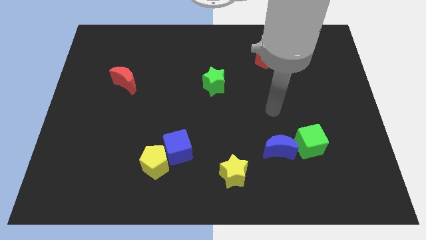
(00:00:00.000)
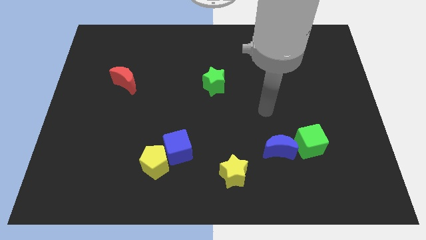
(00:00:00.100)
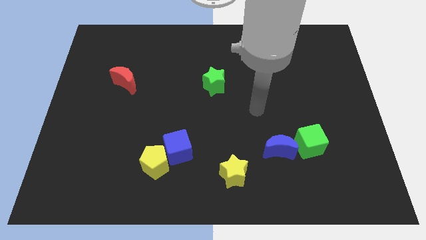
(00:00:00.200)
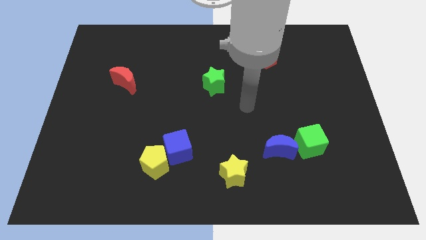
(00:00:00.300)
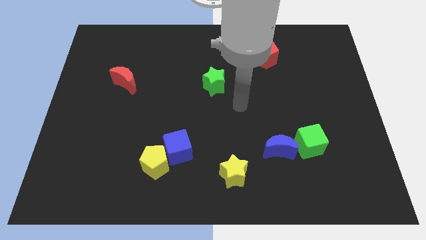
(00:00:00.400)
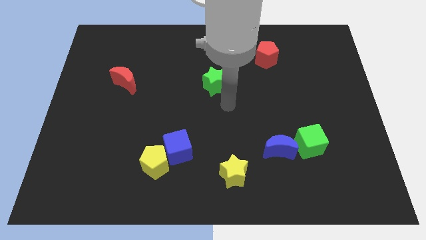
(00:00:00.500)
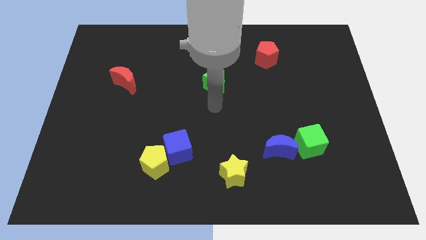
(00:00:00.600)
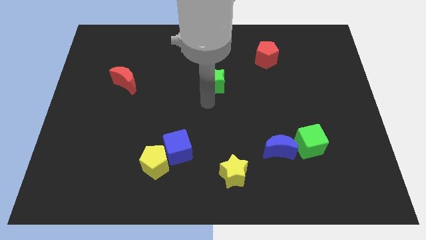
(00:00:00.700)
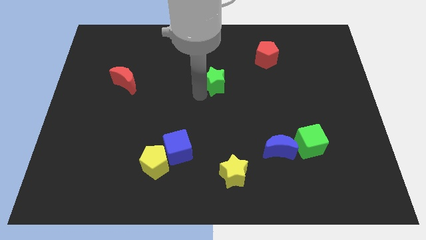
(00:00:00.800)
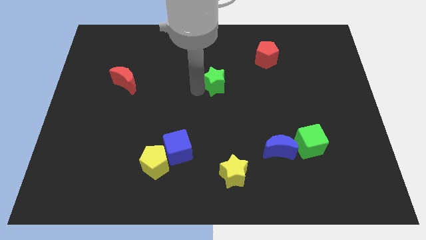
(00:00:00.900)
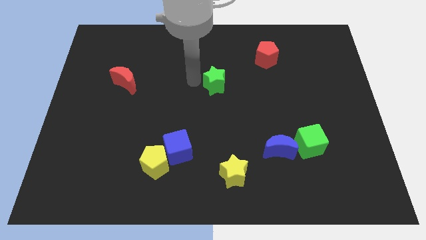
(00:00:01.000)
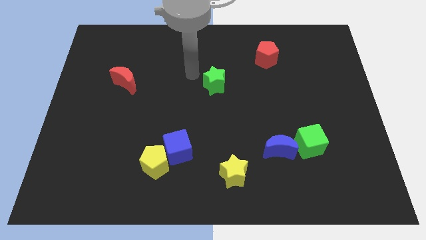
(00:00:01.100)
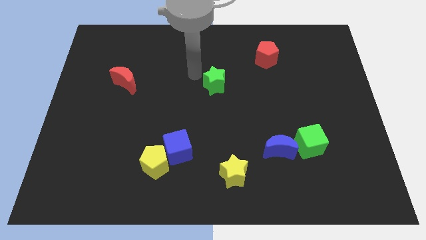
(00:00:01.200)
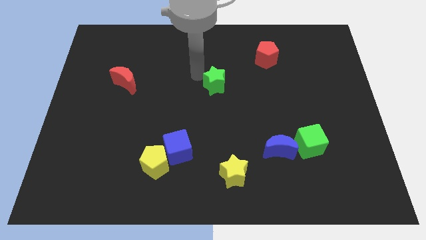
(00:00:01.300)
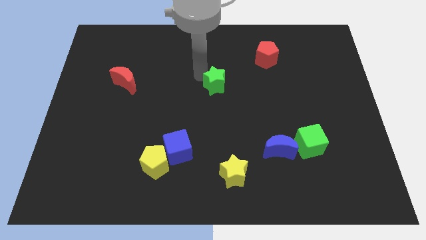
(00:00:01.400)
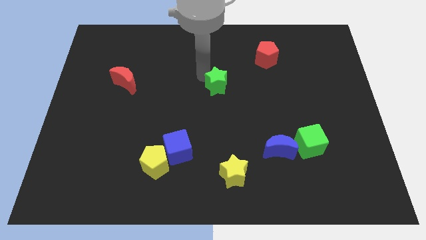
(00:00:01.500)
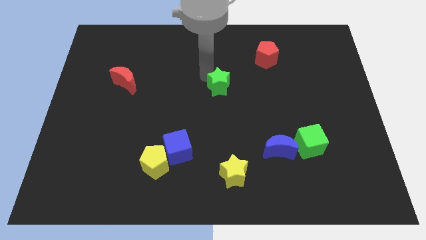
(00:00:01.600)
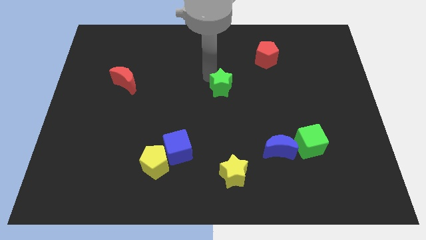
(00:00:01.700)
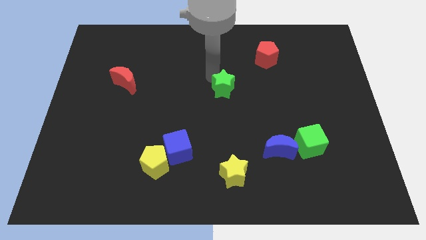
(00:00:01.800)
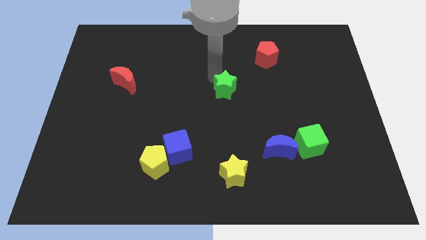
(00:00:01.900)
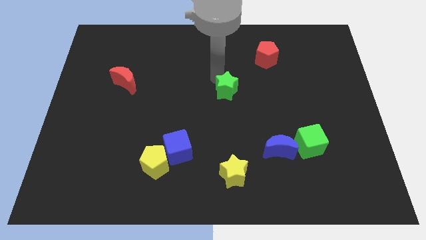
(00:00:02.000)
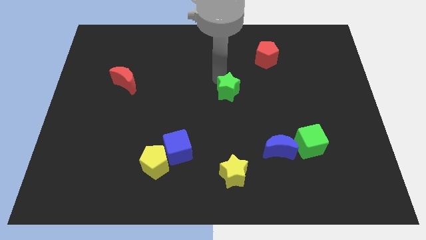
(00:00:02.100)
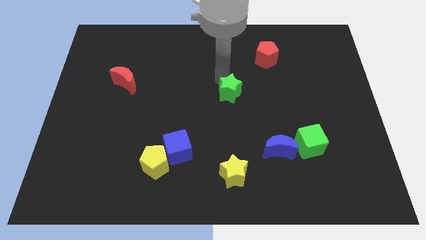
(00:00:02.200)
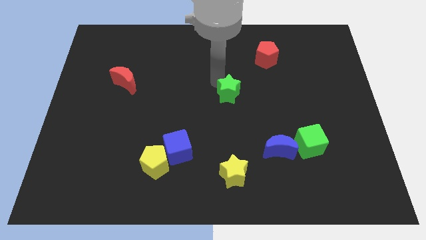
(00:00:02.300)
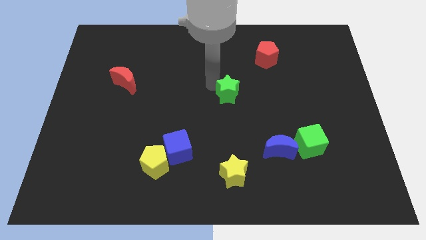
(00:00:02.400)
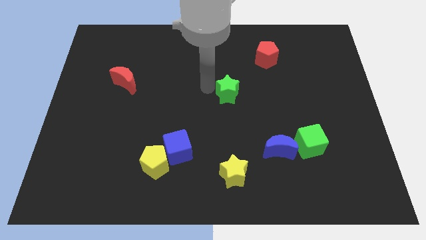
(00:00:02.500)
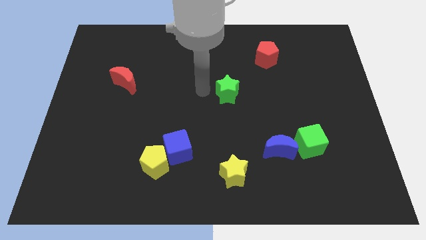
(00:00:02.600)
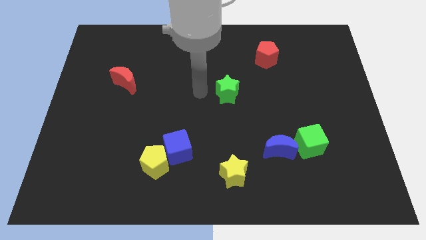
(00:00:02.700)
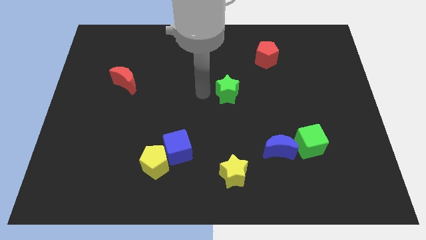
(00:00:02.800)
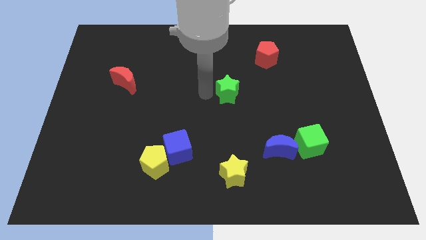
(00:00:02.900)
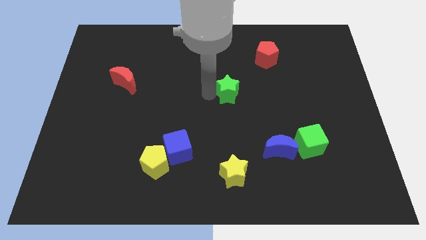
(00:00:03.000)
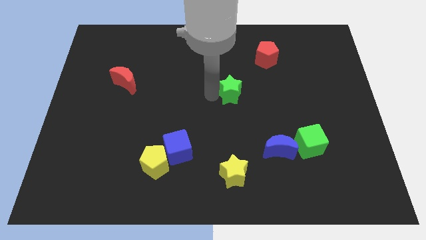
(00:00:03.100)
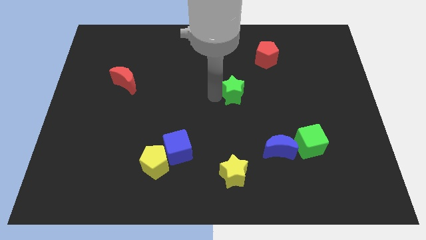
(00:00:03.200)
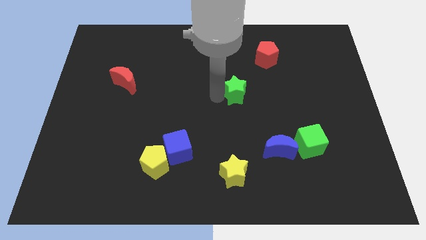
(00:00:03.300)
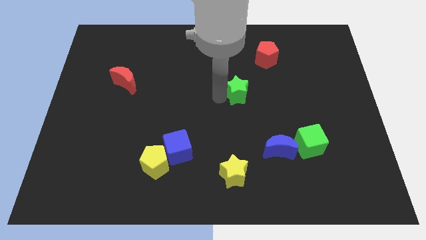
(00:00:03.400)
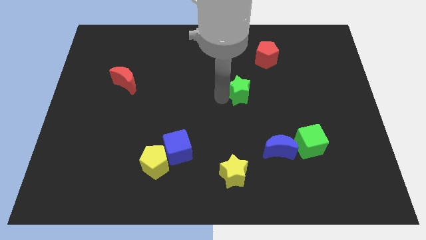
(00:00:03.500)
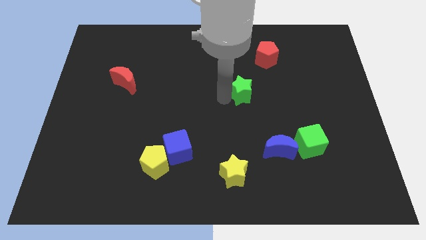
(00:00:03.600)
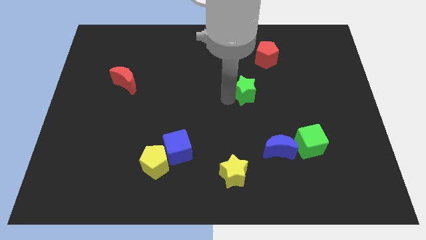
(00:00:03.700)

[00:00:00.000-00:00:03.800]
push the green star a little right

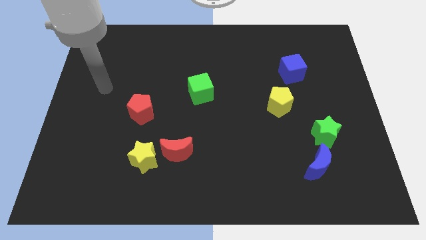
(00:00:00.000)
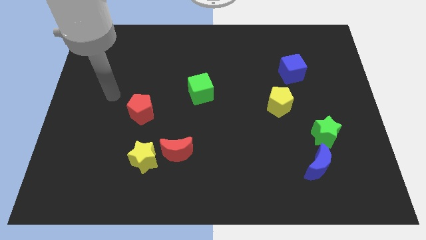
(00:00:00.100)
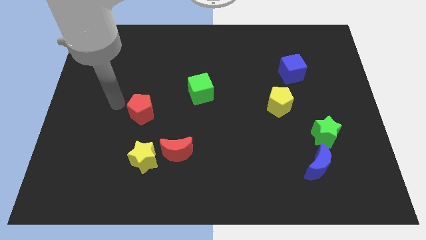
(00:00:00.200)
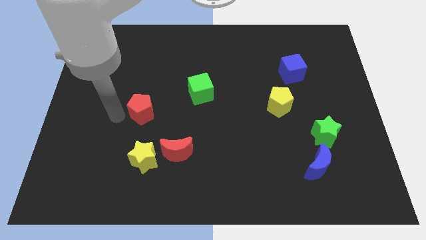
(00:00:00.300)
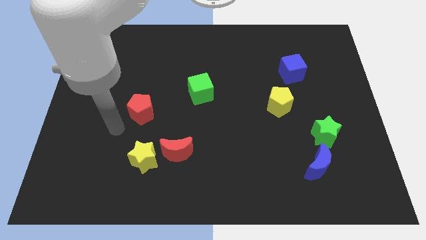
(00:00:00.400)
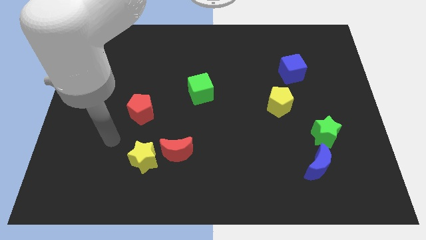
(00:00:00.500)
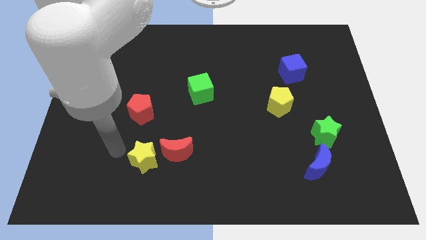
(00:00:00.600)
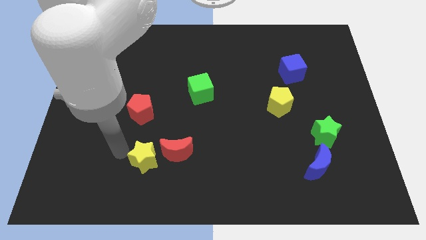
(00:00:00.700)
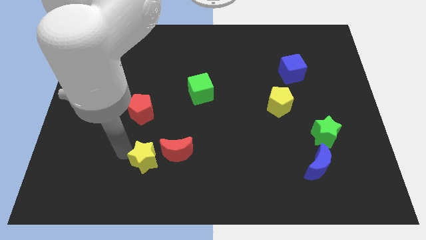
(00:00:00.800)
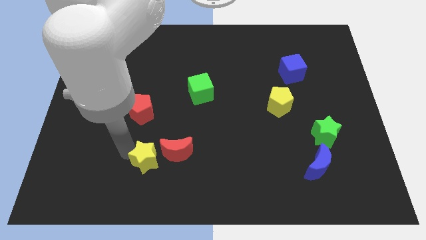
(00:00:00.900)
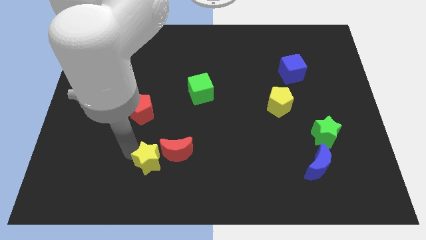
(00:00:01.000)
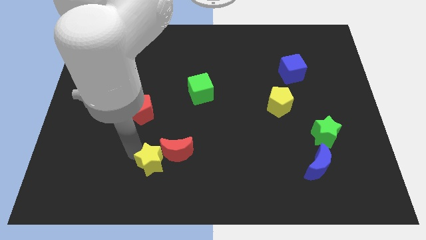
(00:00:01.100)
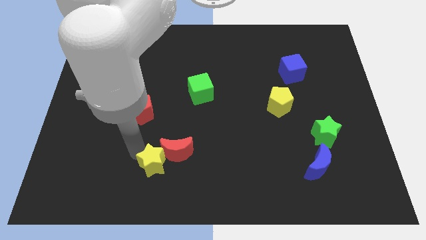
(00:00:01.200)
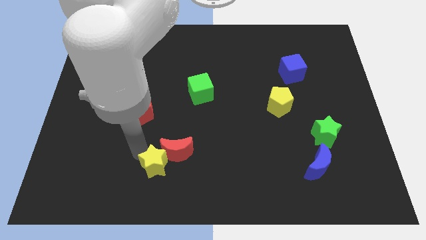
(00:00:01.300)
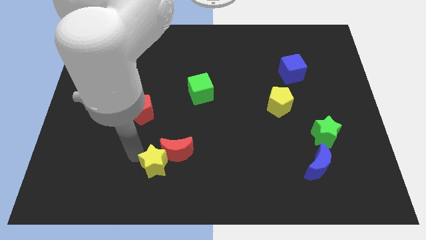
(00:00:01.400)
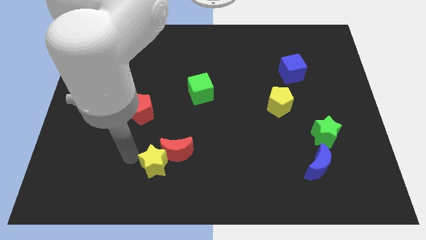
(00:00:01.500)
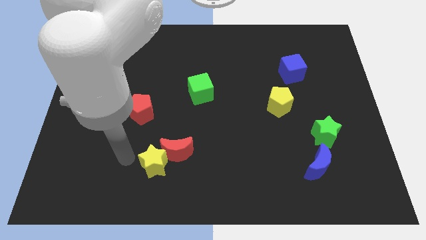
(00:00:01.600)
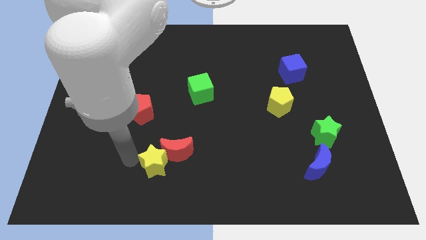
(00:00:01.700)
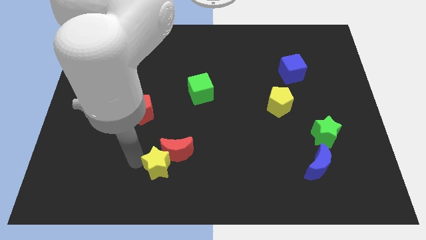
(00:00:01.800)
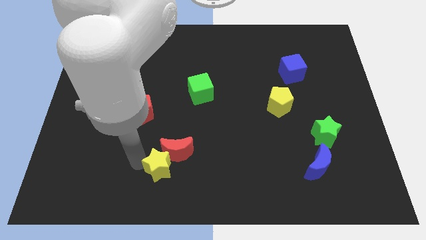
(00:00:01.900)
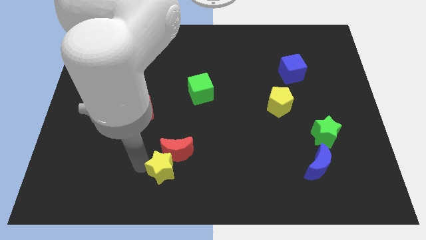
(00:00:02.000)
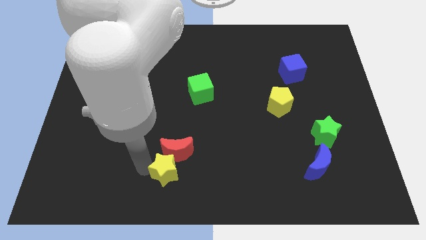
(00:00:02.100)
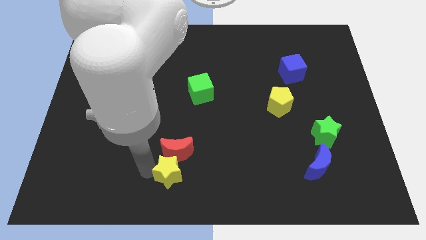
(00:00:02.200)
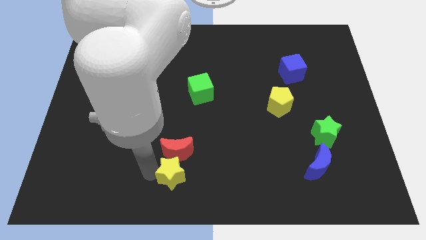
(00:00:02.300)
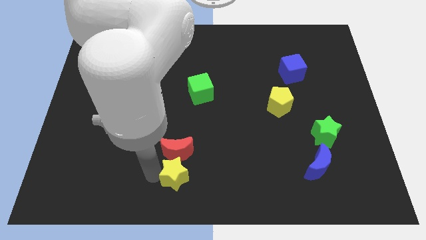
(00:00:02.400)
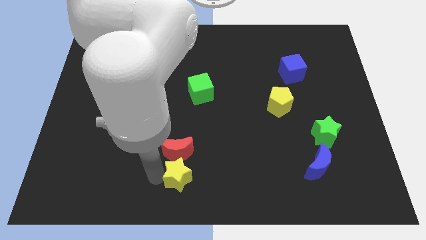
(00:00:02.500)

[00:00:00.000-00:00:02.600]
slightly slide the yellow star right

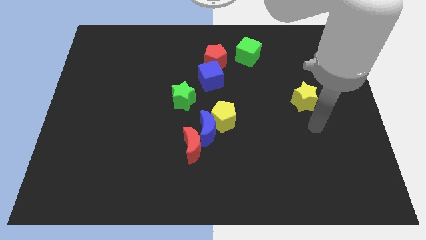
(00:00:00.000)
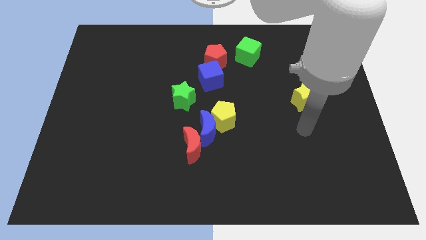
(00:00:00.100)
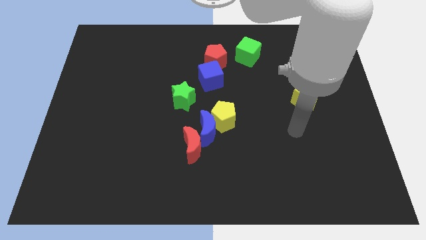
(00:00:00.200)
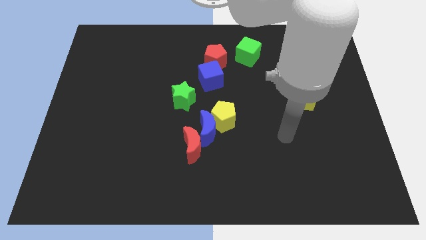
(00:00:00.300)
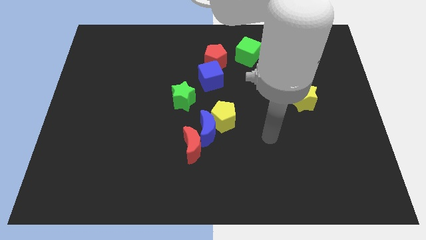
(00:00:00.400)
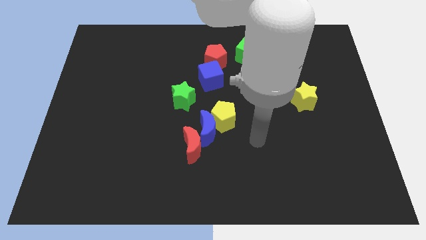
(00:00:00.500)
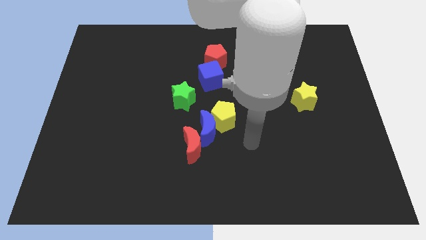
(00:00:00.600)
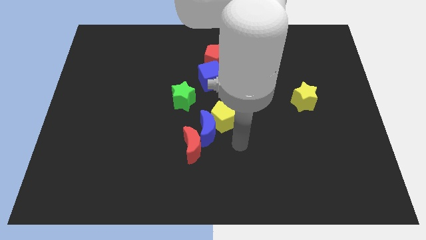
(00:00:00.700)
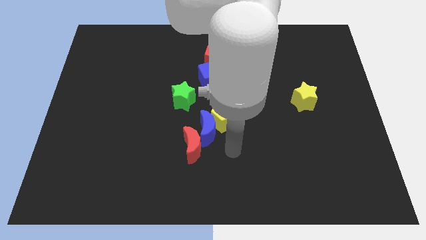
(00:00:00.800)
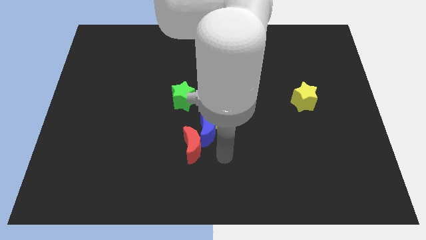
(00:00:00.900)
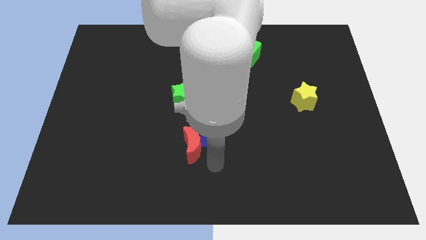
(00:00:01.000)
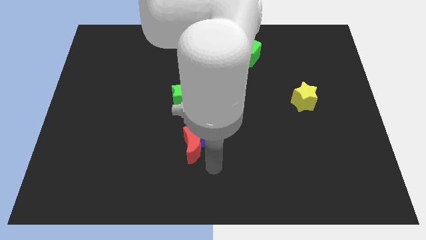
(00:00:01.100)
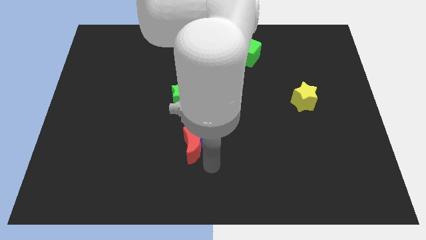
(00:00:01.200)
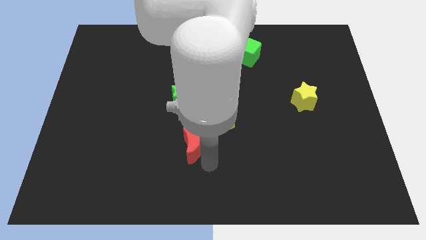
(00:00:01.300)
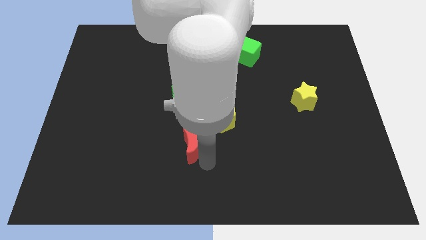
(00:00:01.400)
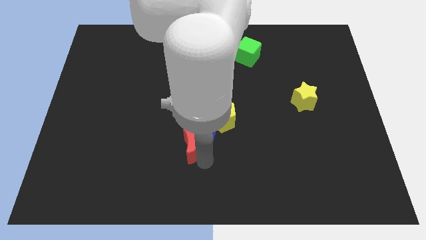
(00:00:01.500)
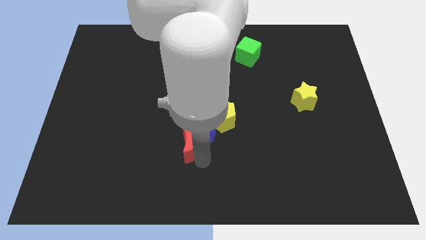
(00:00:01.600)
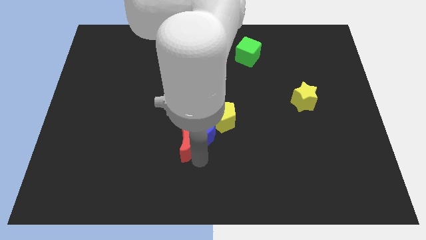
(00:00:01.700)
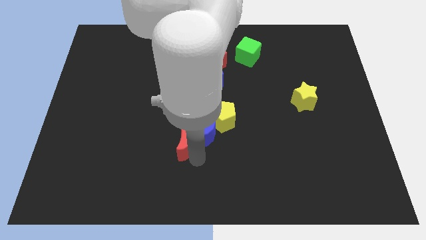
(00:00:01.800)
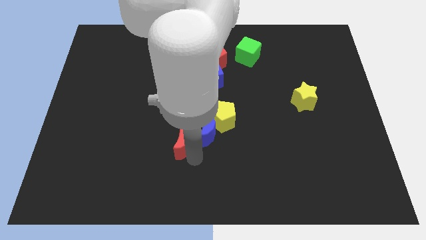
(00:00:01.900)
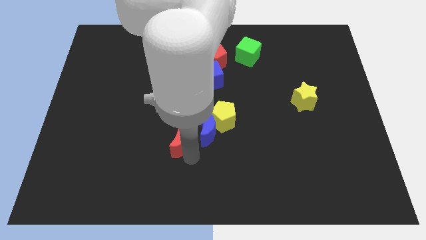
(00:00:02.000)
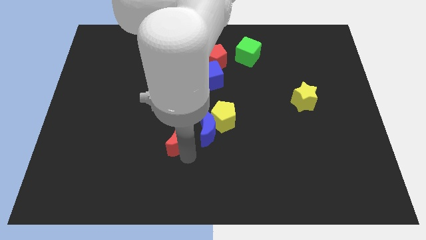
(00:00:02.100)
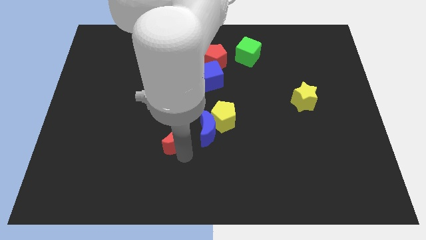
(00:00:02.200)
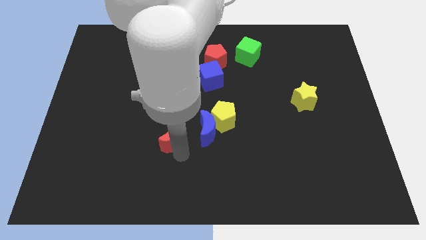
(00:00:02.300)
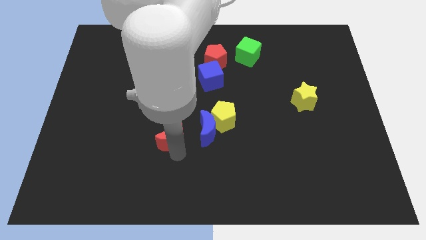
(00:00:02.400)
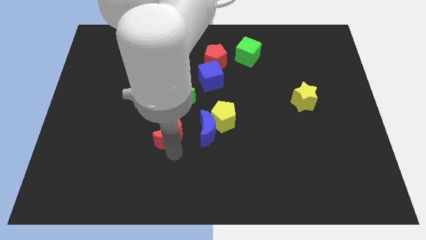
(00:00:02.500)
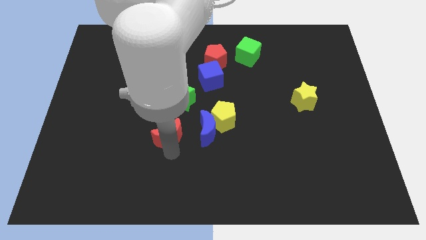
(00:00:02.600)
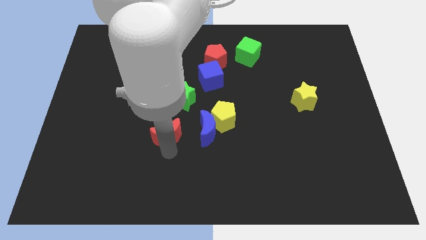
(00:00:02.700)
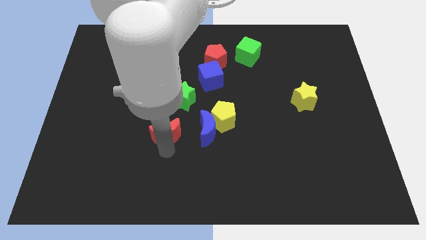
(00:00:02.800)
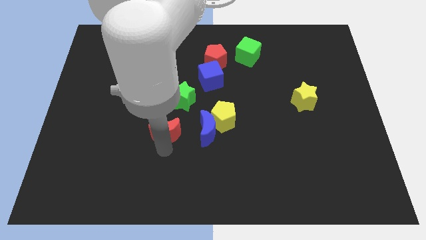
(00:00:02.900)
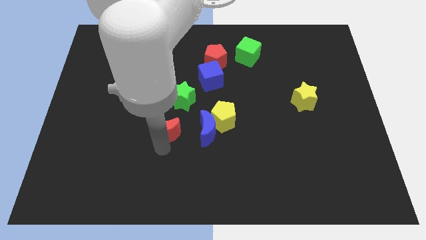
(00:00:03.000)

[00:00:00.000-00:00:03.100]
slightly slide the red moon up and to the left
